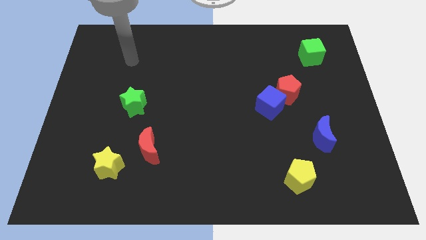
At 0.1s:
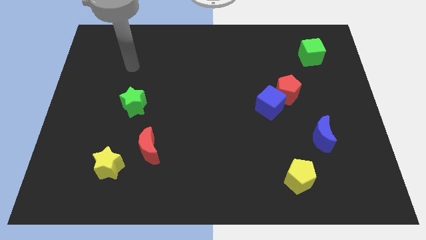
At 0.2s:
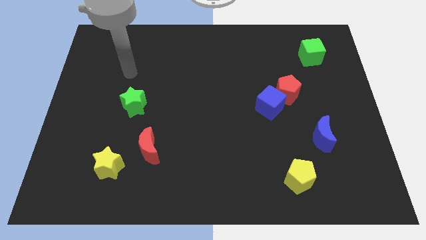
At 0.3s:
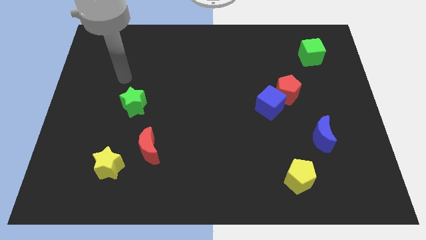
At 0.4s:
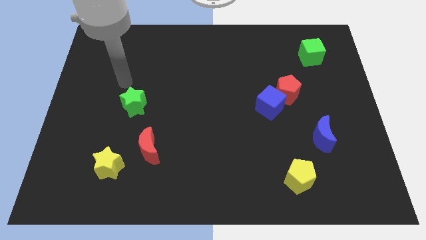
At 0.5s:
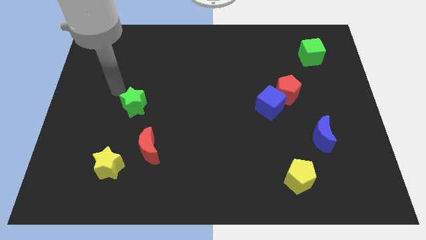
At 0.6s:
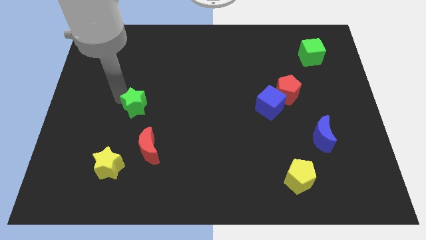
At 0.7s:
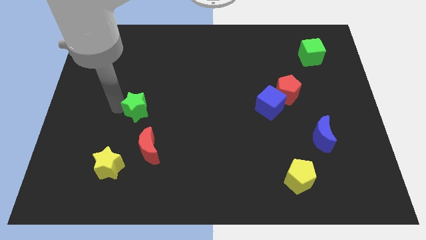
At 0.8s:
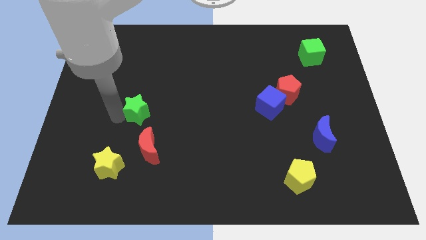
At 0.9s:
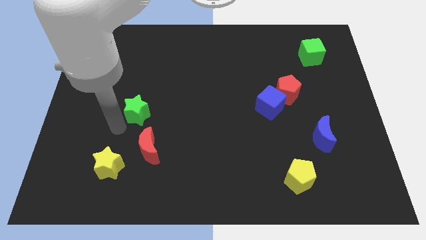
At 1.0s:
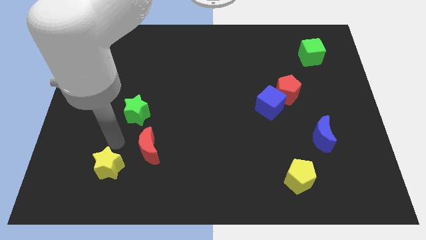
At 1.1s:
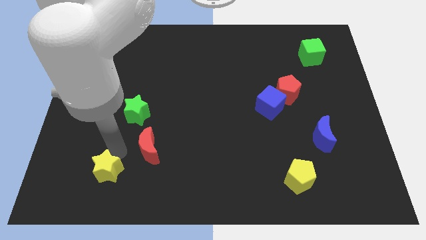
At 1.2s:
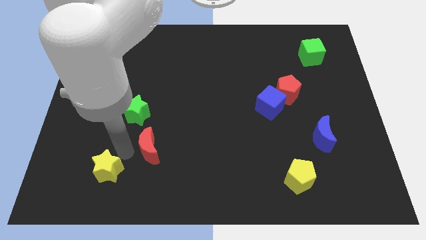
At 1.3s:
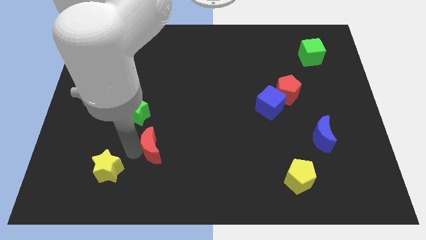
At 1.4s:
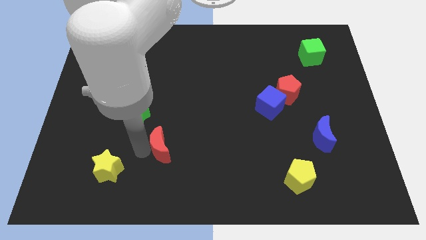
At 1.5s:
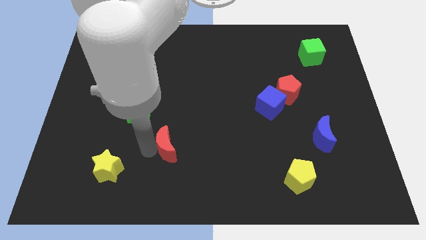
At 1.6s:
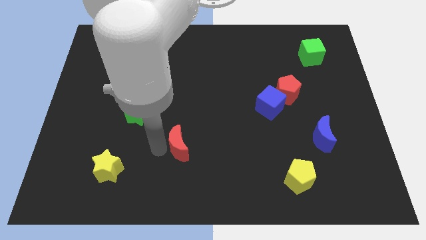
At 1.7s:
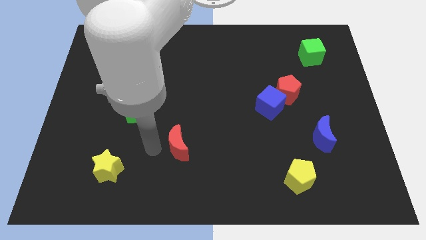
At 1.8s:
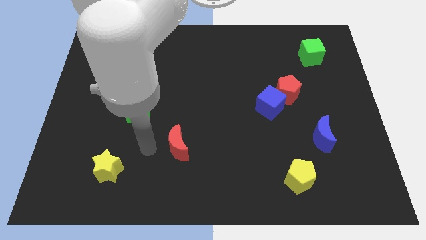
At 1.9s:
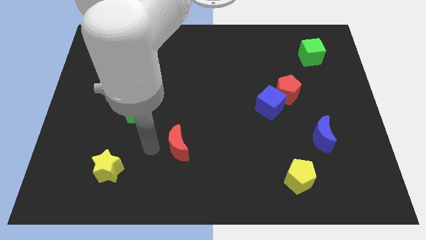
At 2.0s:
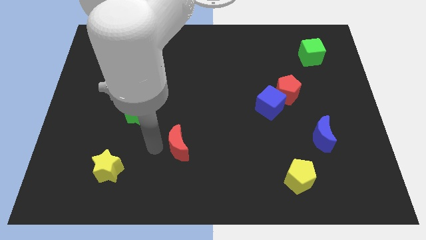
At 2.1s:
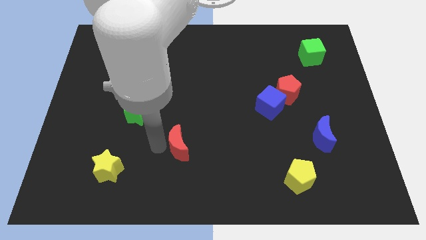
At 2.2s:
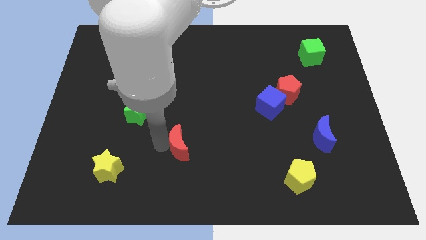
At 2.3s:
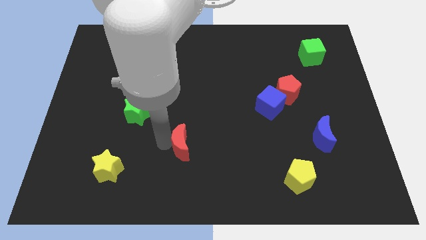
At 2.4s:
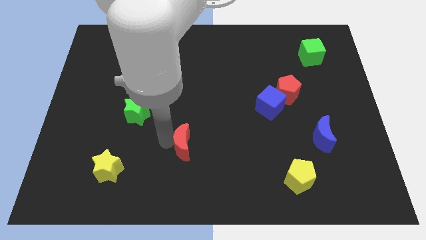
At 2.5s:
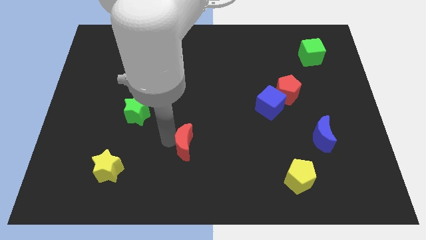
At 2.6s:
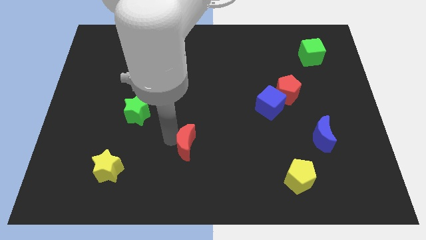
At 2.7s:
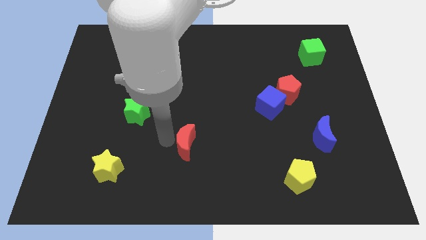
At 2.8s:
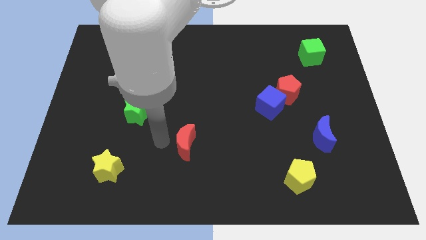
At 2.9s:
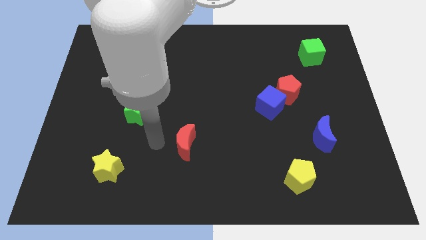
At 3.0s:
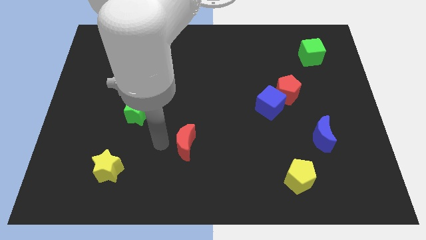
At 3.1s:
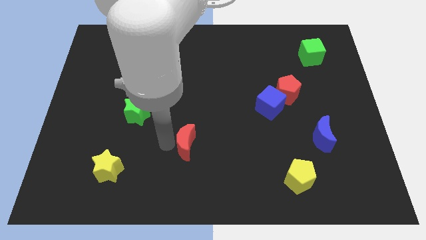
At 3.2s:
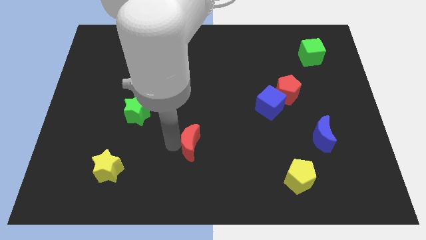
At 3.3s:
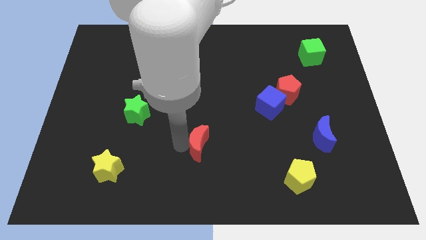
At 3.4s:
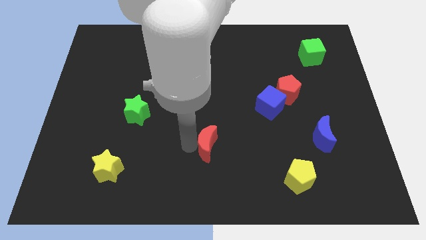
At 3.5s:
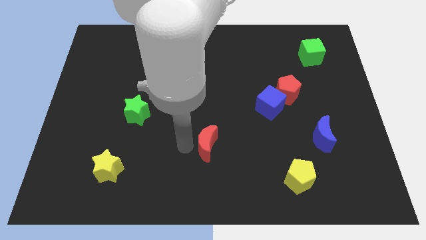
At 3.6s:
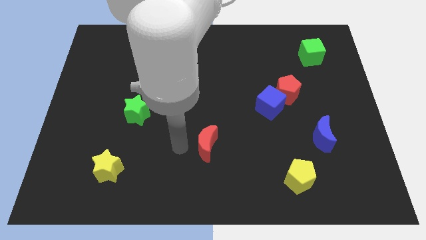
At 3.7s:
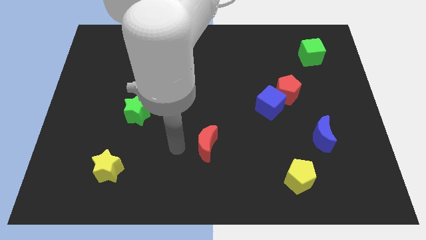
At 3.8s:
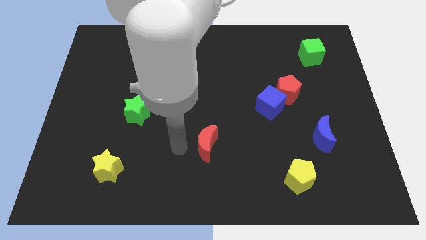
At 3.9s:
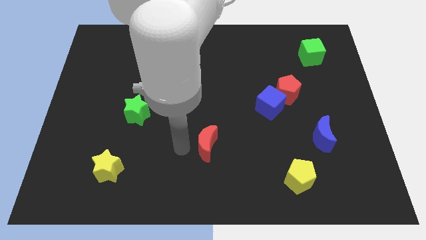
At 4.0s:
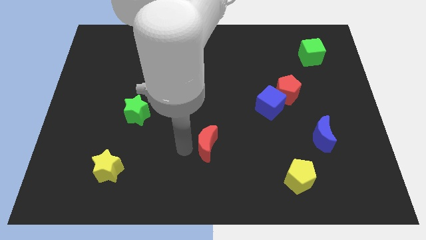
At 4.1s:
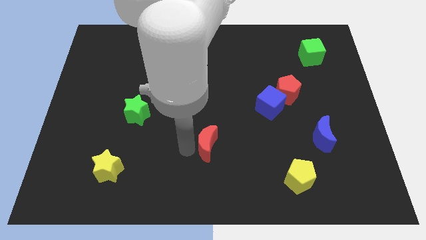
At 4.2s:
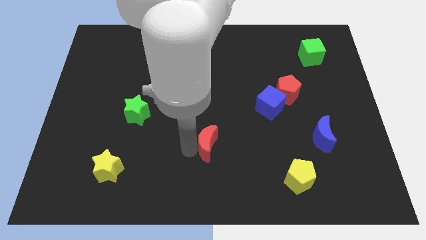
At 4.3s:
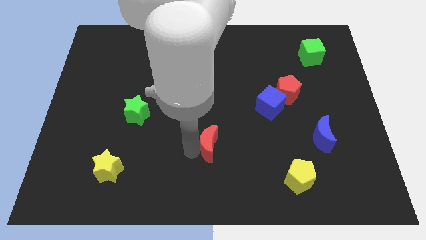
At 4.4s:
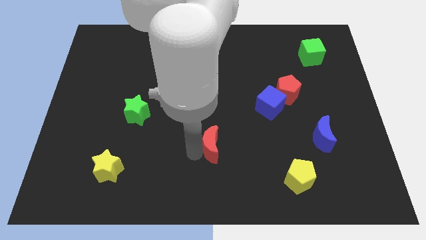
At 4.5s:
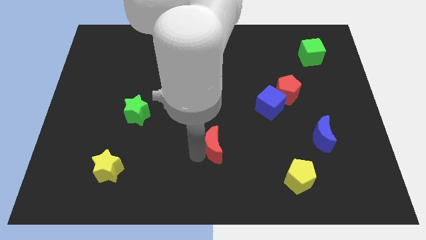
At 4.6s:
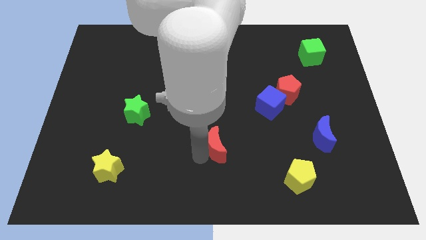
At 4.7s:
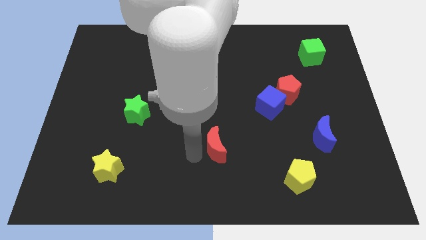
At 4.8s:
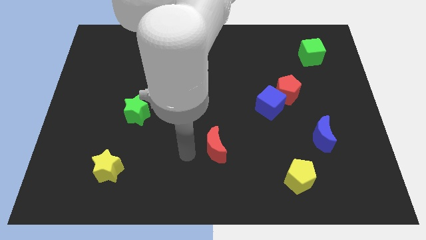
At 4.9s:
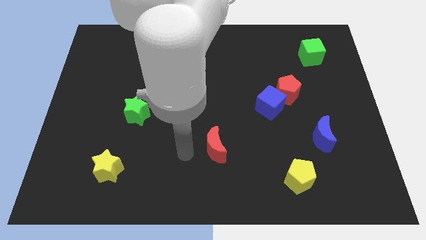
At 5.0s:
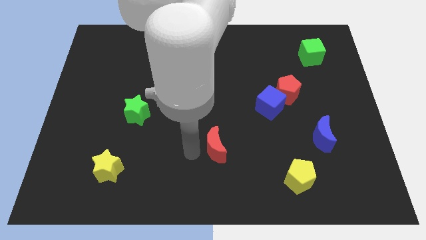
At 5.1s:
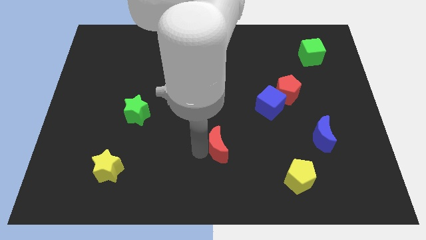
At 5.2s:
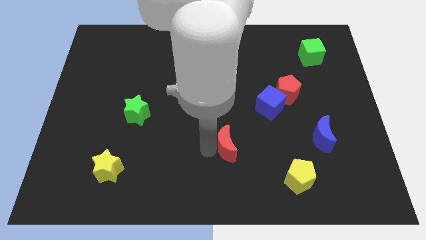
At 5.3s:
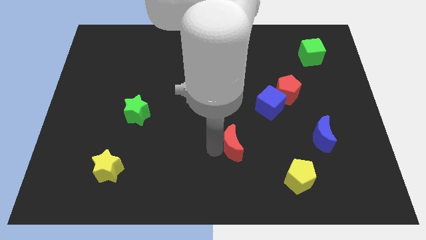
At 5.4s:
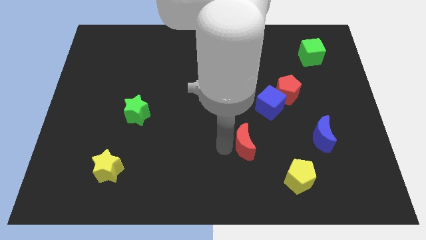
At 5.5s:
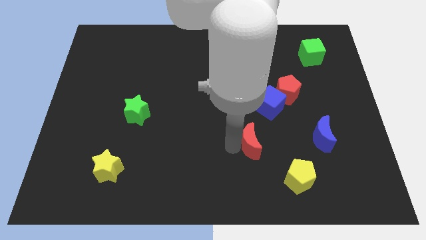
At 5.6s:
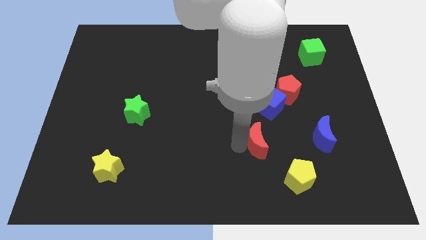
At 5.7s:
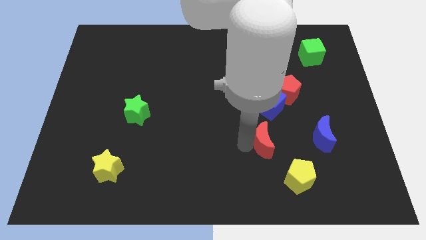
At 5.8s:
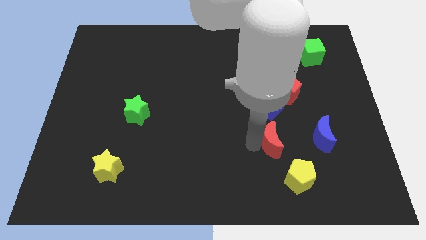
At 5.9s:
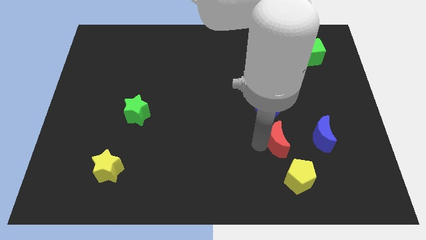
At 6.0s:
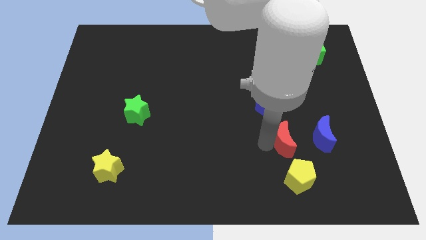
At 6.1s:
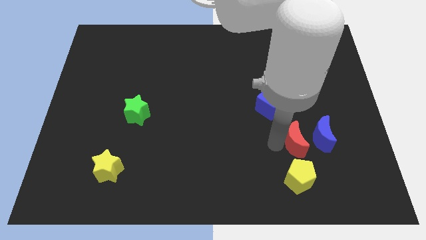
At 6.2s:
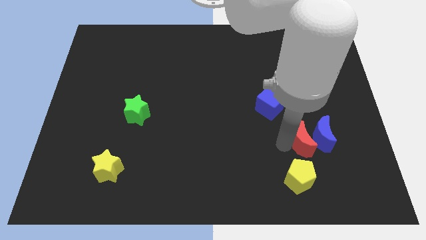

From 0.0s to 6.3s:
push the red moon next to the blue moon
